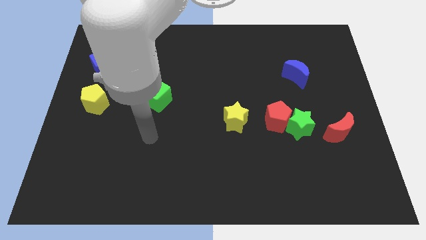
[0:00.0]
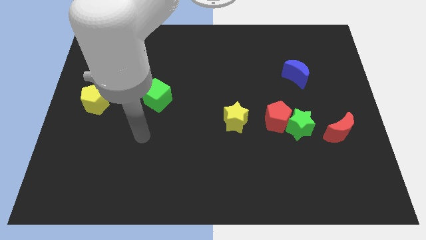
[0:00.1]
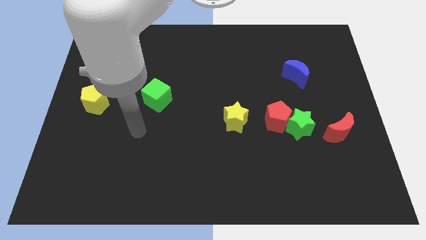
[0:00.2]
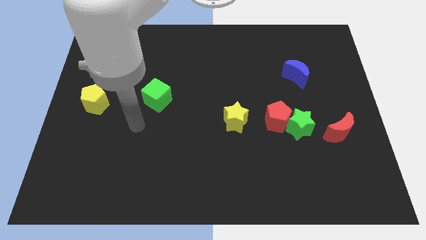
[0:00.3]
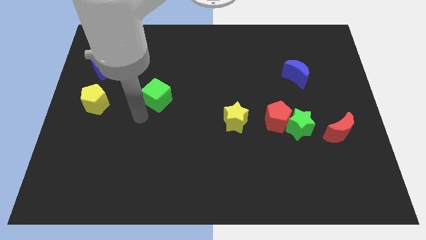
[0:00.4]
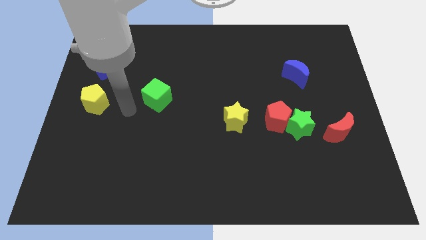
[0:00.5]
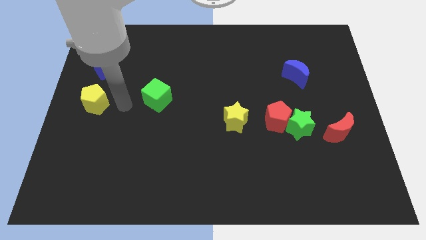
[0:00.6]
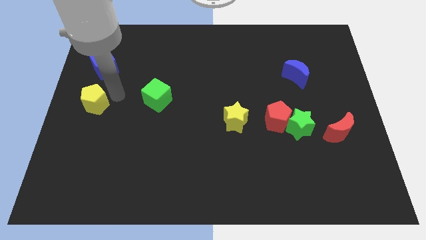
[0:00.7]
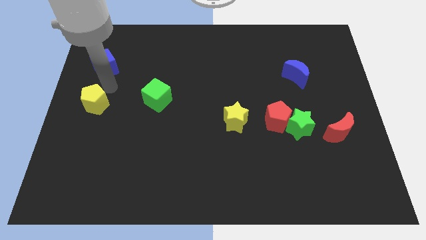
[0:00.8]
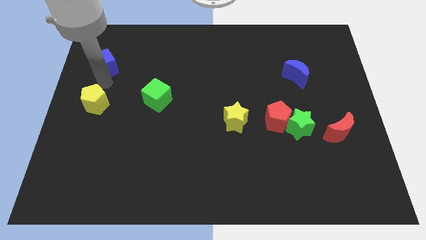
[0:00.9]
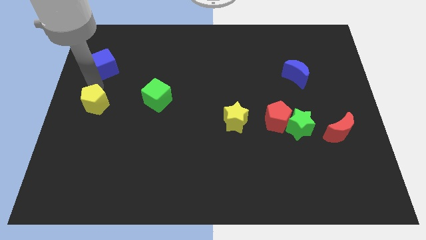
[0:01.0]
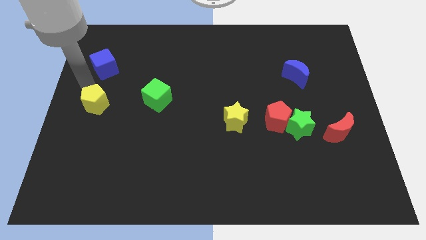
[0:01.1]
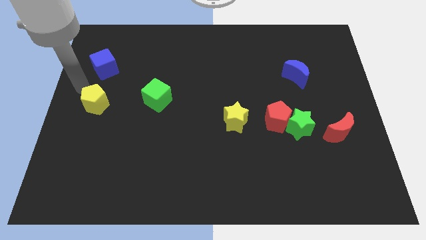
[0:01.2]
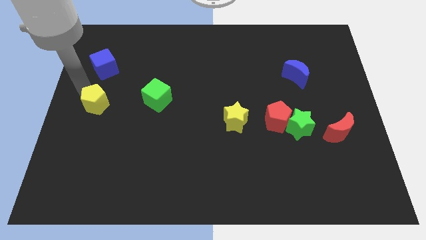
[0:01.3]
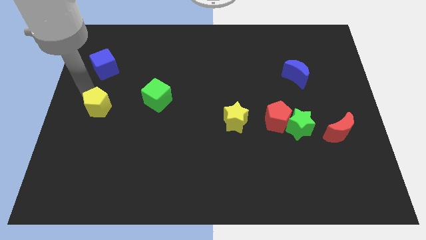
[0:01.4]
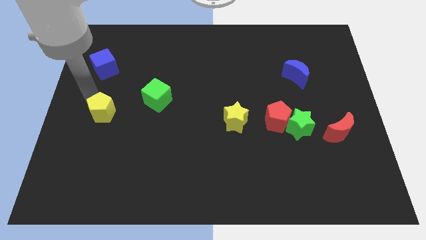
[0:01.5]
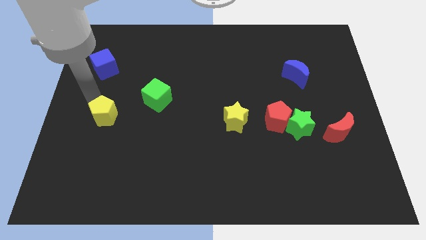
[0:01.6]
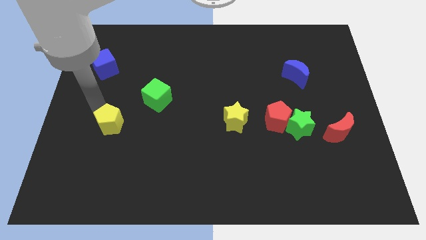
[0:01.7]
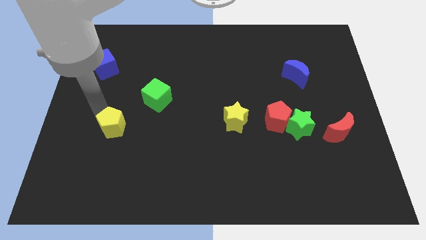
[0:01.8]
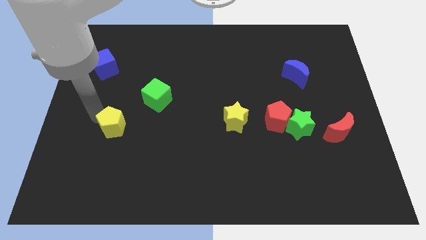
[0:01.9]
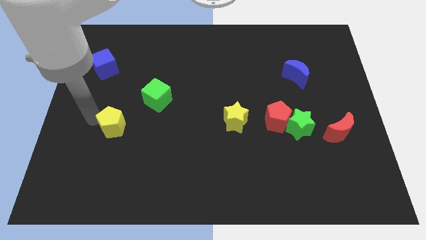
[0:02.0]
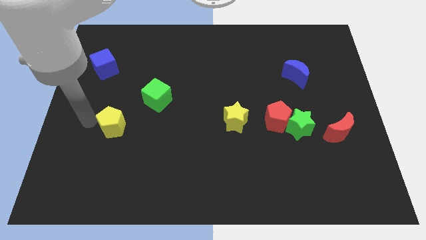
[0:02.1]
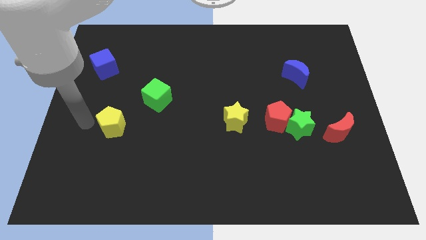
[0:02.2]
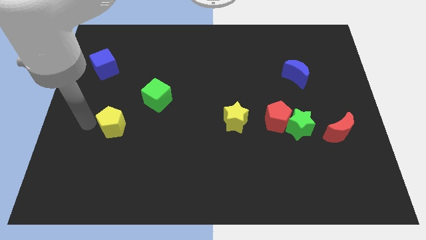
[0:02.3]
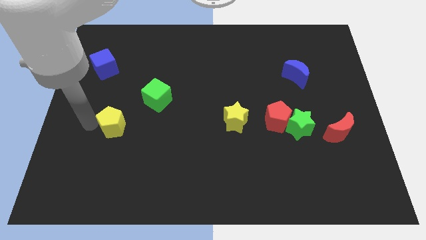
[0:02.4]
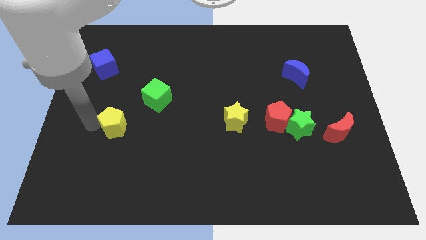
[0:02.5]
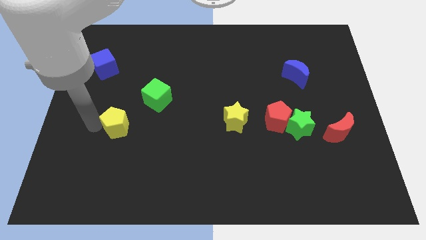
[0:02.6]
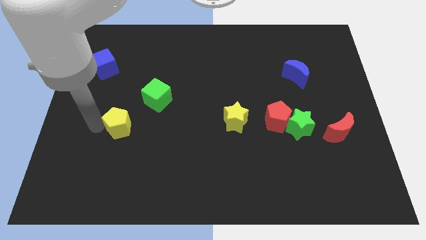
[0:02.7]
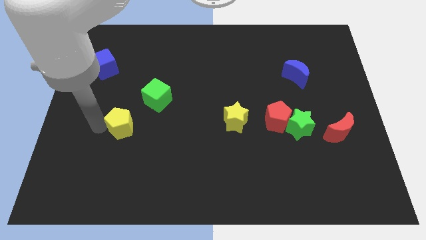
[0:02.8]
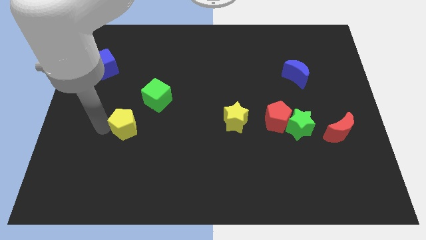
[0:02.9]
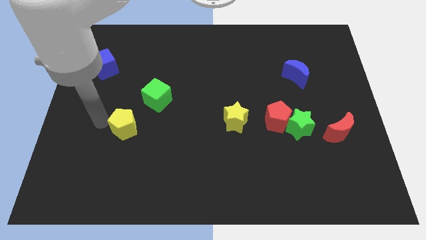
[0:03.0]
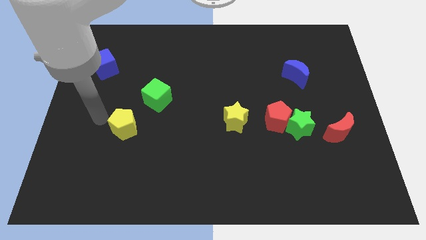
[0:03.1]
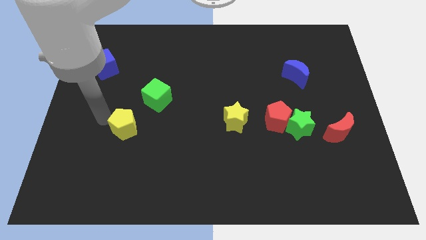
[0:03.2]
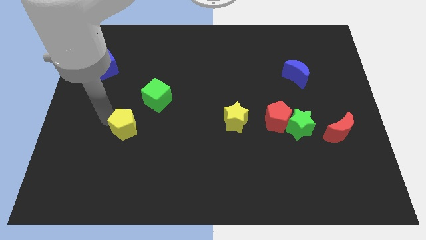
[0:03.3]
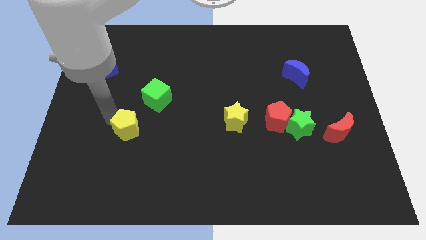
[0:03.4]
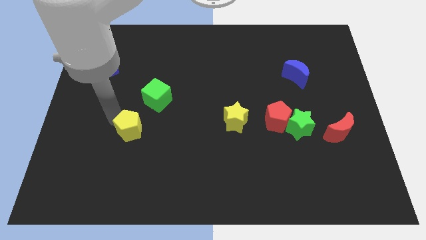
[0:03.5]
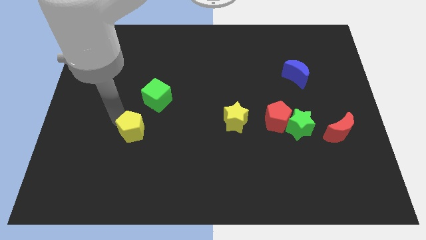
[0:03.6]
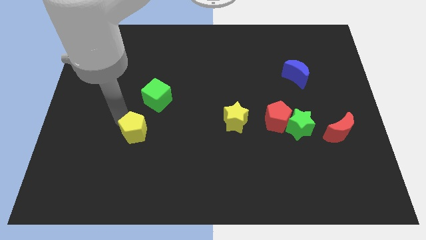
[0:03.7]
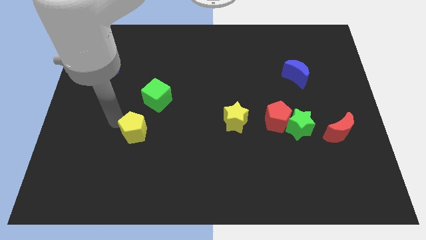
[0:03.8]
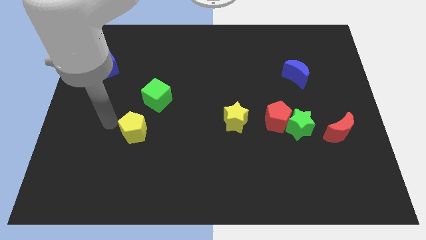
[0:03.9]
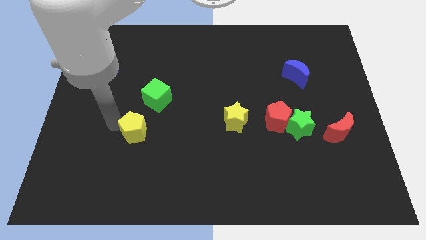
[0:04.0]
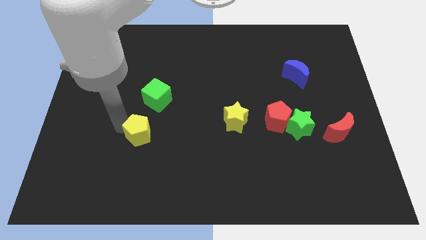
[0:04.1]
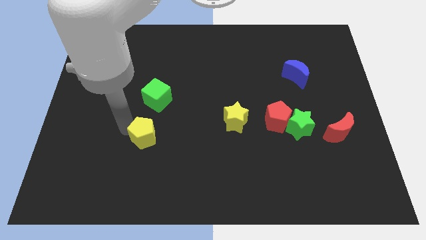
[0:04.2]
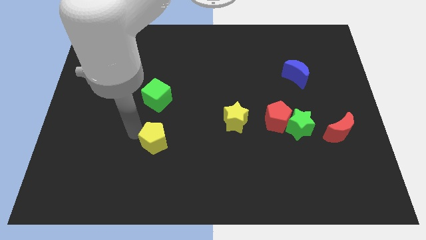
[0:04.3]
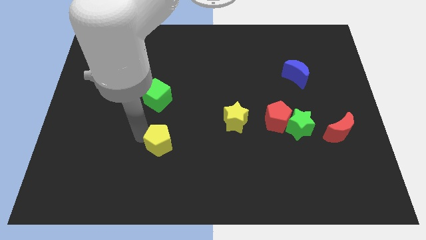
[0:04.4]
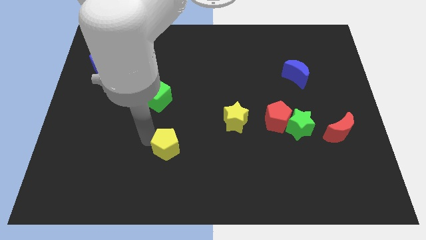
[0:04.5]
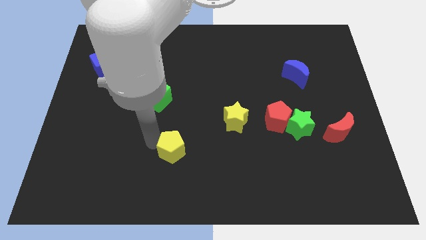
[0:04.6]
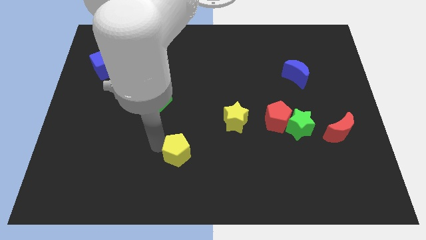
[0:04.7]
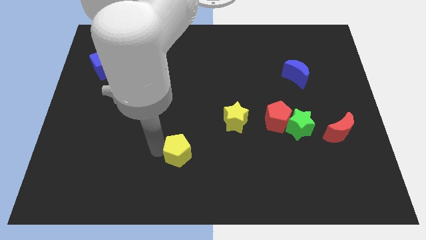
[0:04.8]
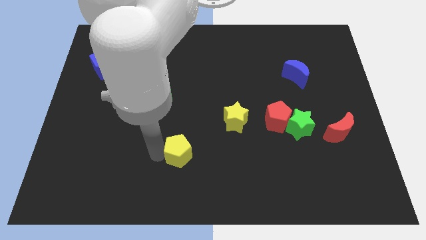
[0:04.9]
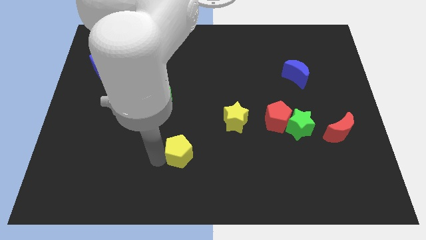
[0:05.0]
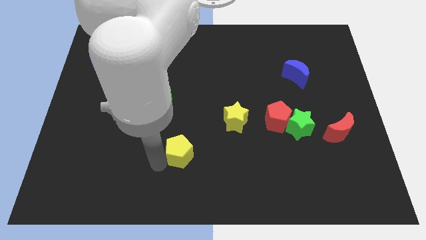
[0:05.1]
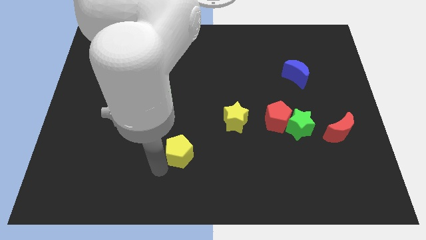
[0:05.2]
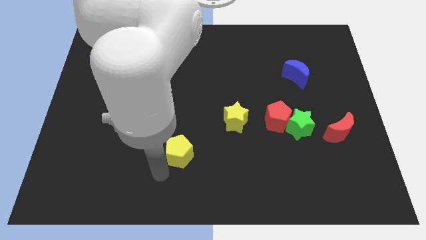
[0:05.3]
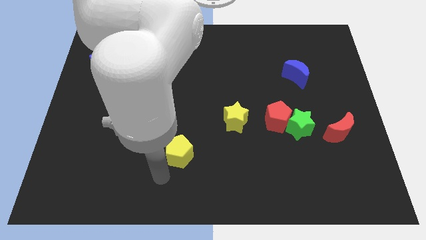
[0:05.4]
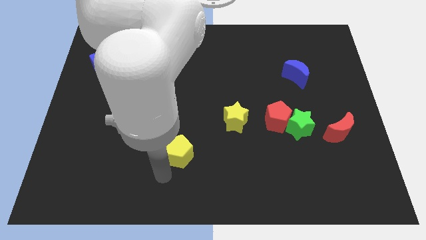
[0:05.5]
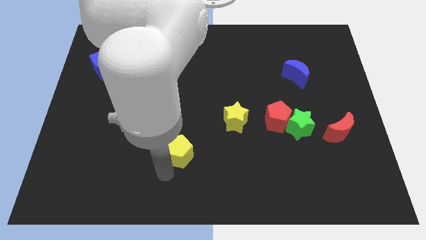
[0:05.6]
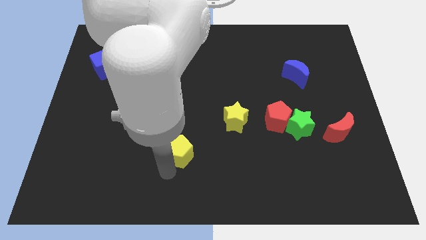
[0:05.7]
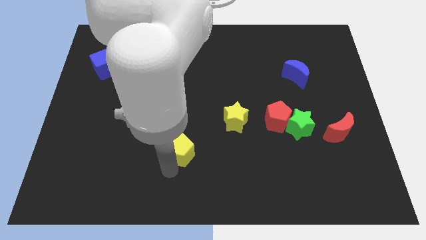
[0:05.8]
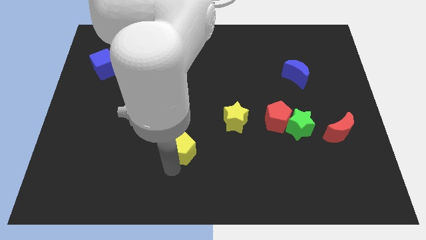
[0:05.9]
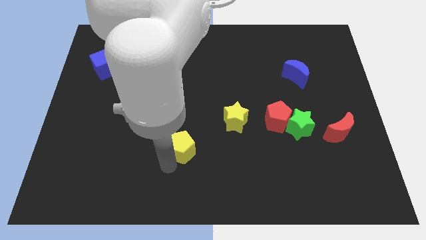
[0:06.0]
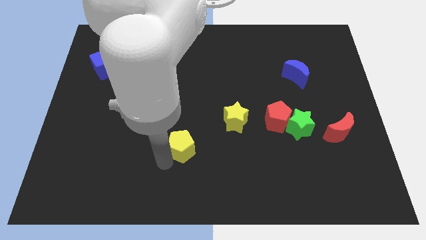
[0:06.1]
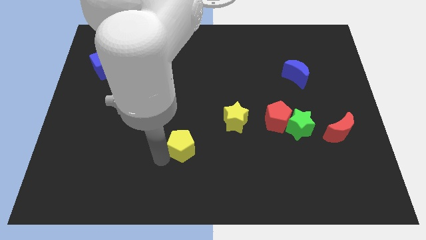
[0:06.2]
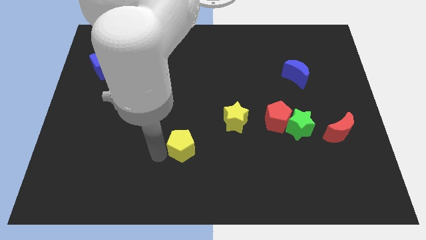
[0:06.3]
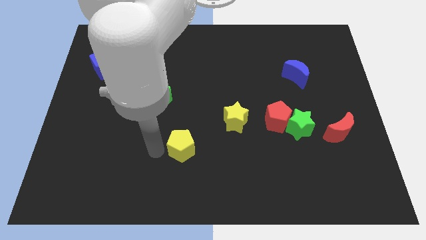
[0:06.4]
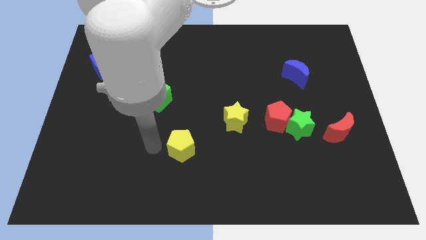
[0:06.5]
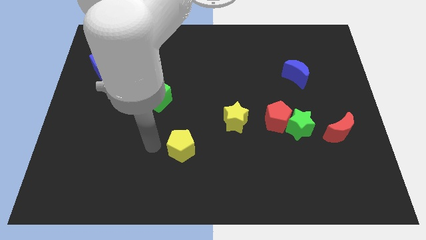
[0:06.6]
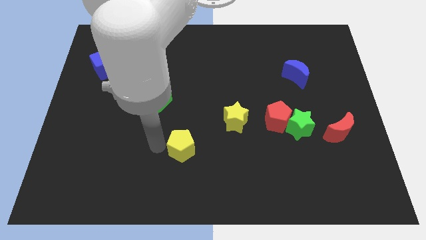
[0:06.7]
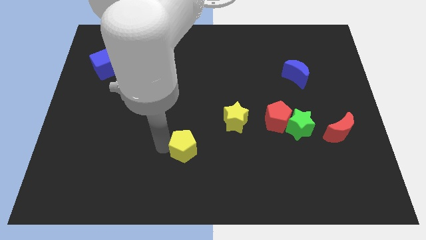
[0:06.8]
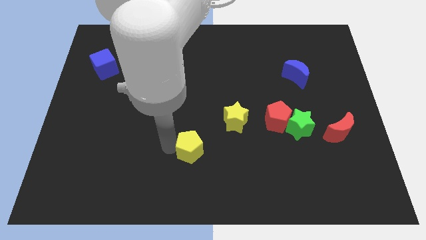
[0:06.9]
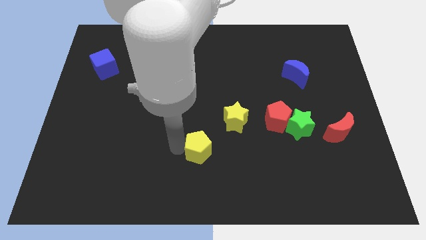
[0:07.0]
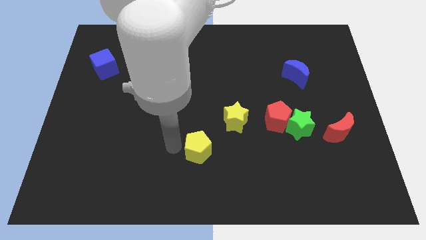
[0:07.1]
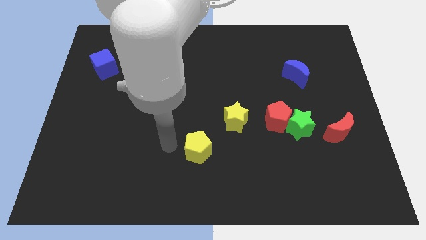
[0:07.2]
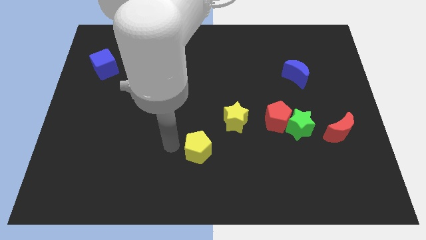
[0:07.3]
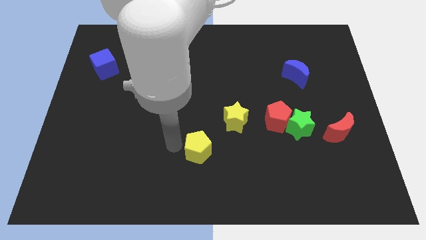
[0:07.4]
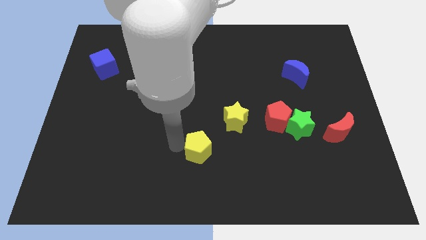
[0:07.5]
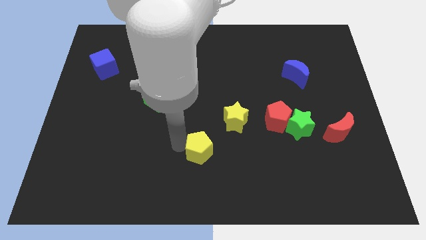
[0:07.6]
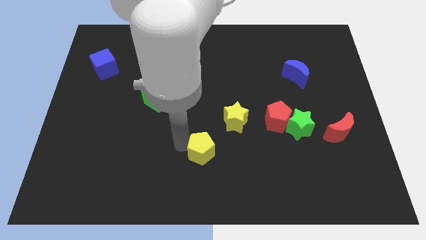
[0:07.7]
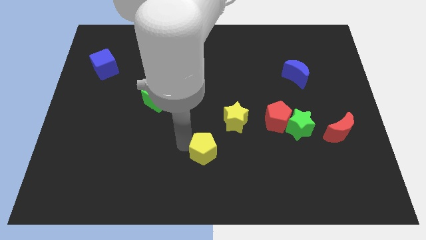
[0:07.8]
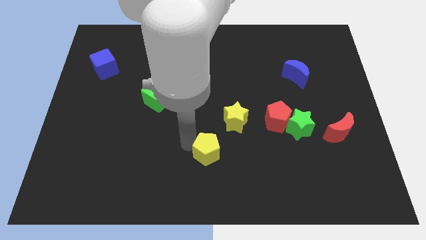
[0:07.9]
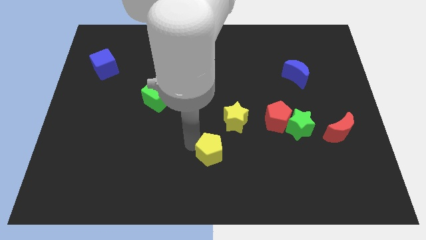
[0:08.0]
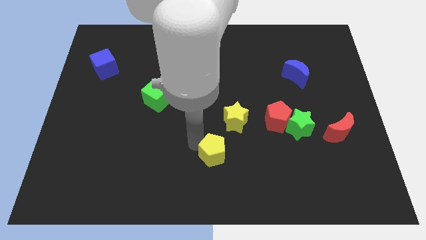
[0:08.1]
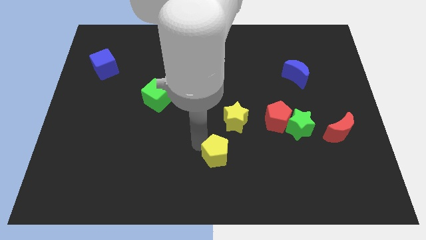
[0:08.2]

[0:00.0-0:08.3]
move the yellow pentagon to the bottom side of the yellow star
